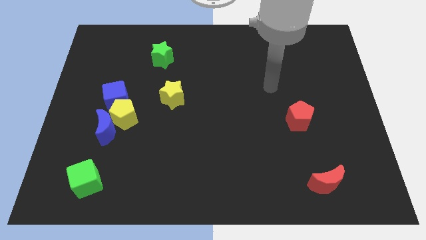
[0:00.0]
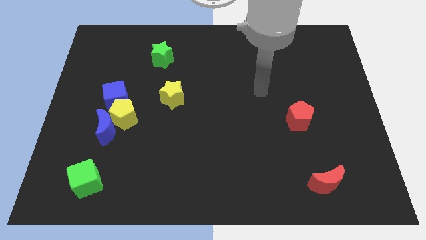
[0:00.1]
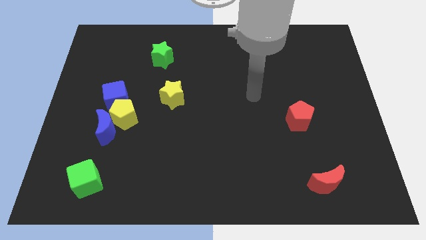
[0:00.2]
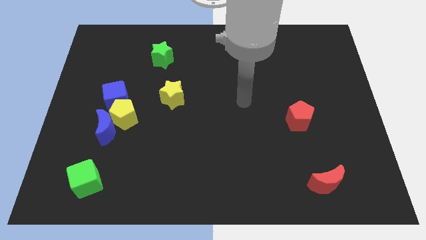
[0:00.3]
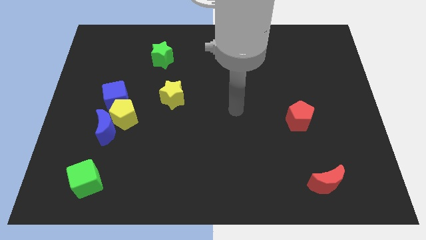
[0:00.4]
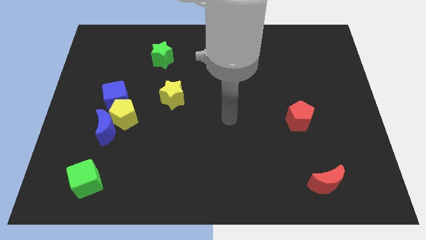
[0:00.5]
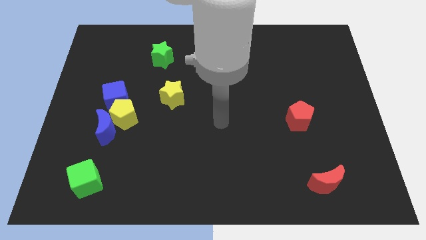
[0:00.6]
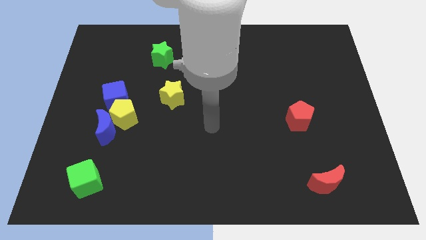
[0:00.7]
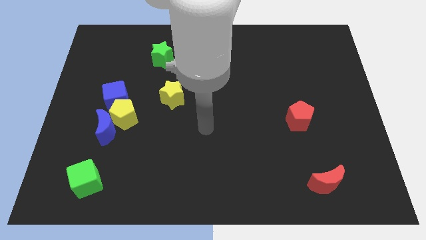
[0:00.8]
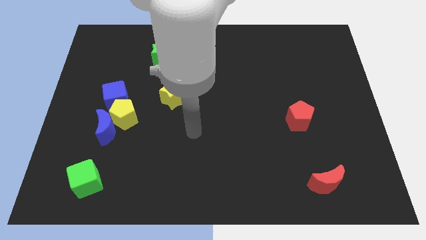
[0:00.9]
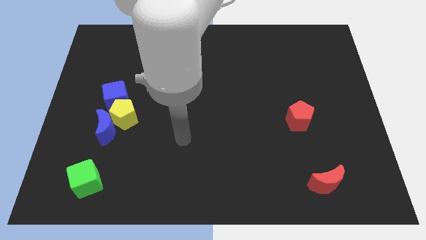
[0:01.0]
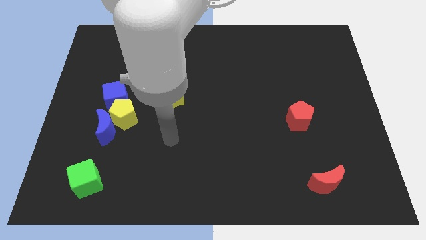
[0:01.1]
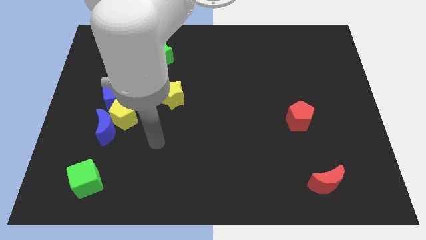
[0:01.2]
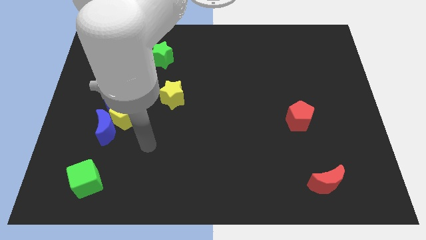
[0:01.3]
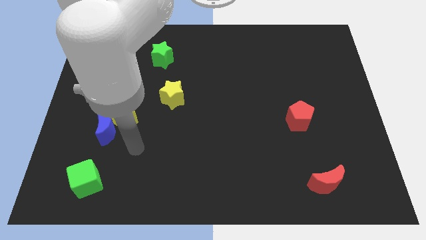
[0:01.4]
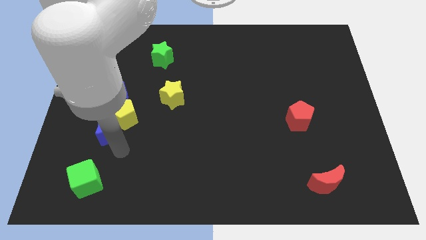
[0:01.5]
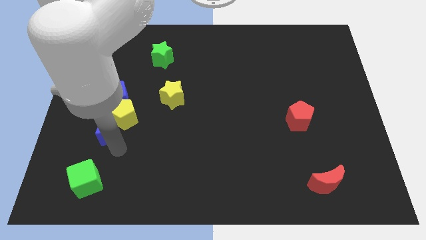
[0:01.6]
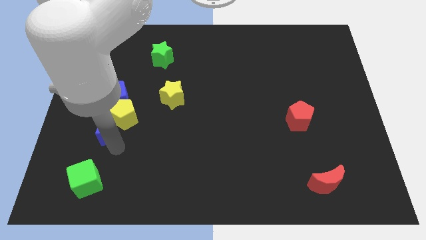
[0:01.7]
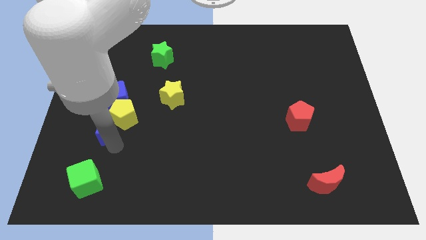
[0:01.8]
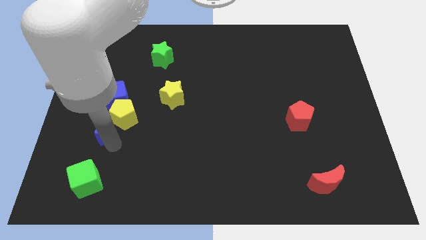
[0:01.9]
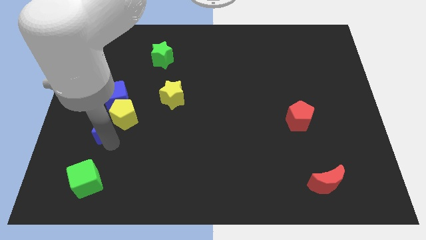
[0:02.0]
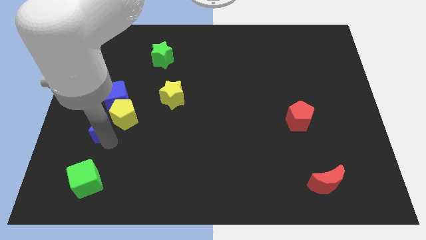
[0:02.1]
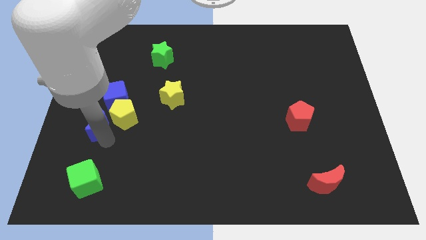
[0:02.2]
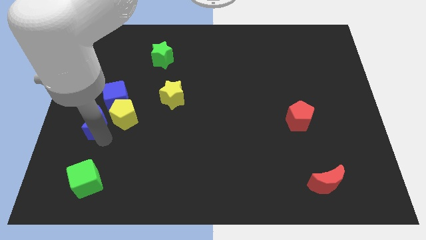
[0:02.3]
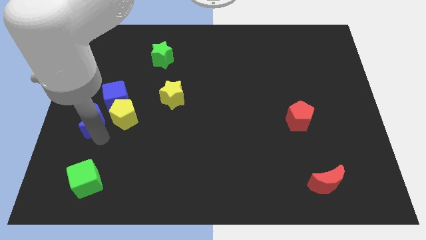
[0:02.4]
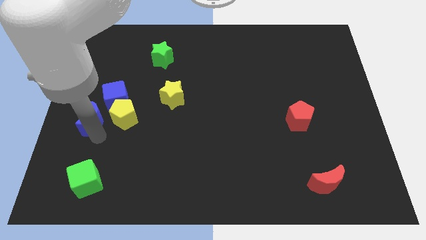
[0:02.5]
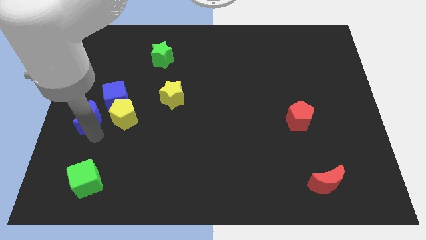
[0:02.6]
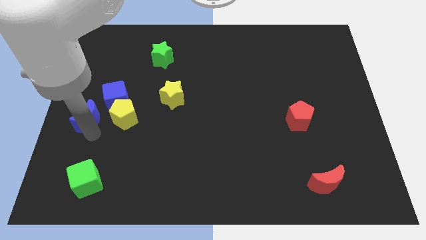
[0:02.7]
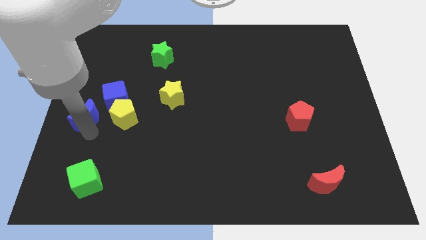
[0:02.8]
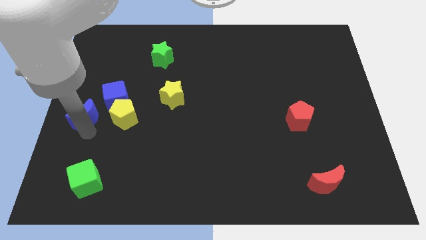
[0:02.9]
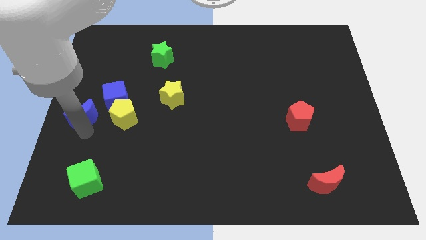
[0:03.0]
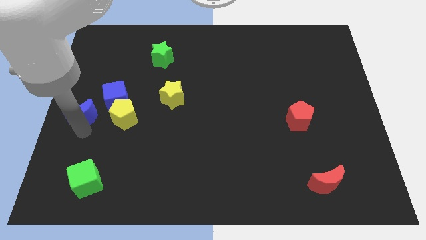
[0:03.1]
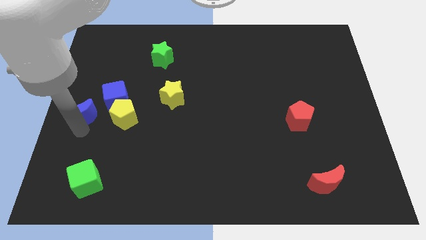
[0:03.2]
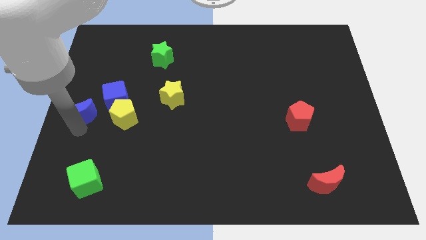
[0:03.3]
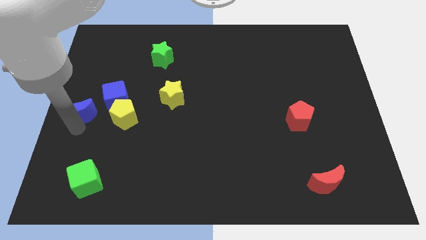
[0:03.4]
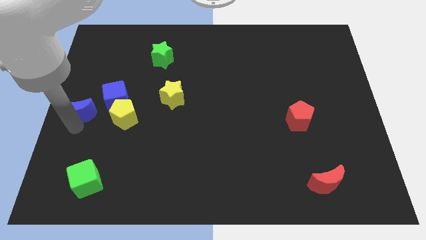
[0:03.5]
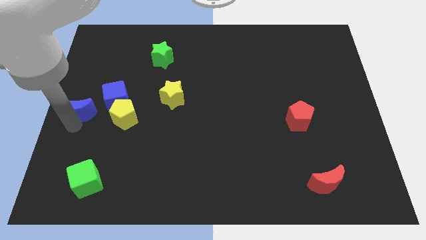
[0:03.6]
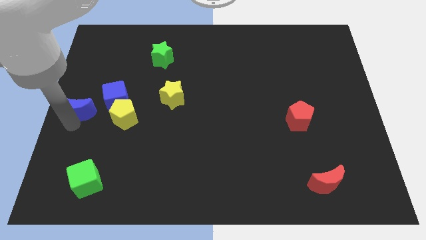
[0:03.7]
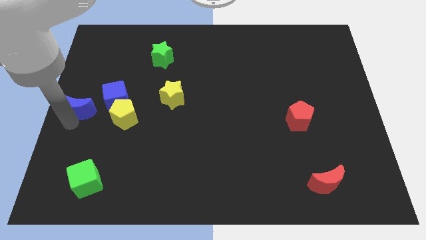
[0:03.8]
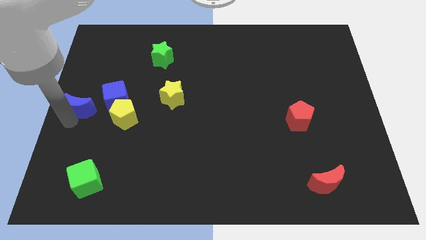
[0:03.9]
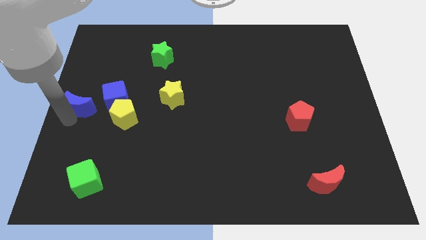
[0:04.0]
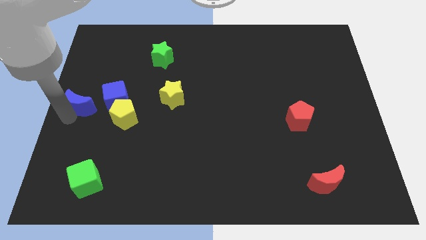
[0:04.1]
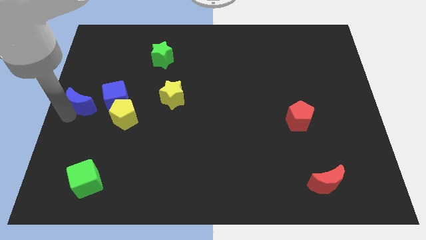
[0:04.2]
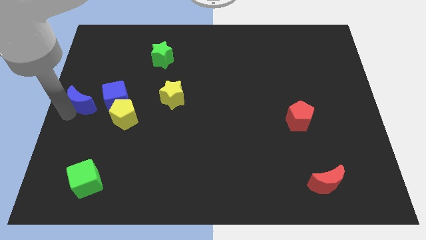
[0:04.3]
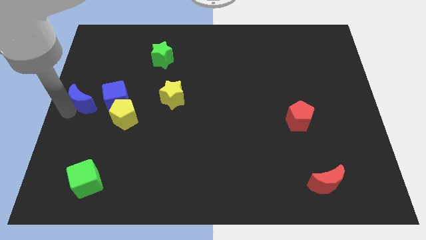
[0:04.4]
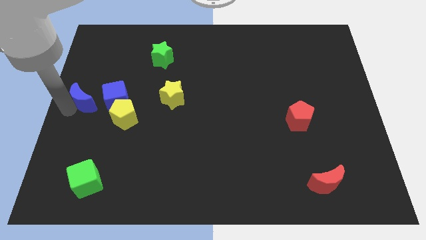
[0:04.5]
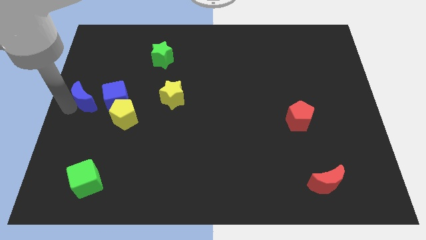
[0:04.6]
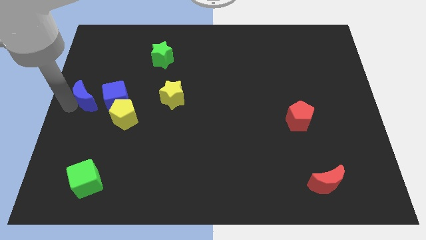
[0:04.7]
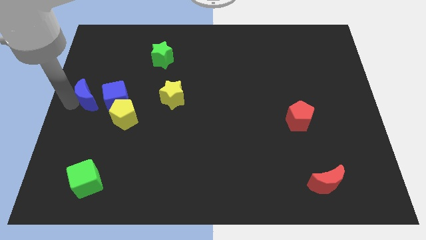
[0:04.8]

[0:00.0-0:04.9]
slightly move the blue moon upwards

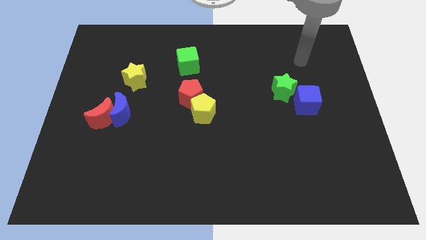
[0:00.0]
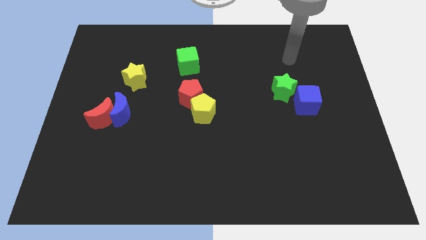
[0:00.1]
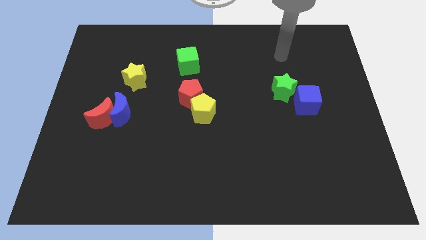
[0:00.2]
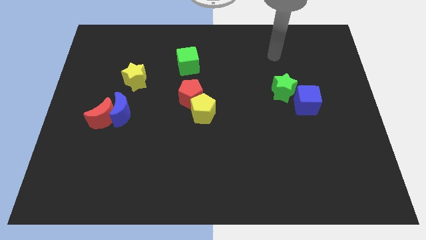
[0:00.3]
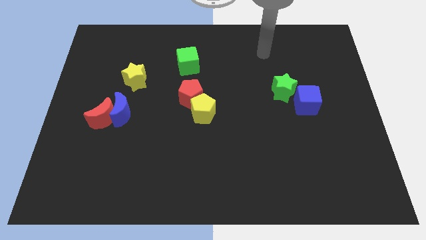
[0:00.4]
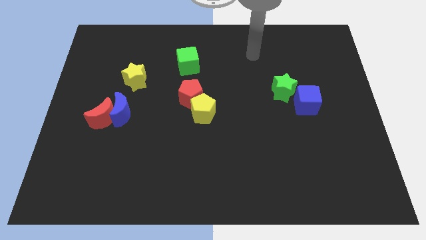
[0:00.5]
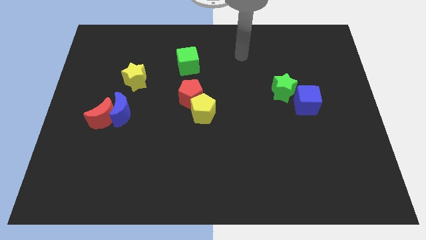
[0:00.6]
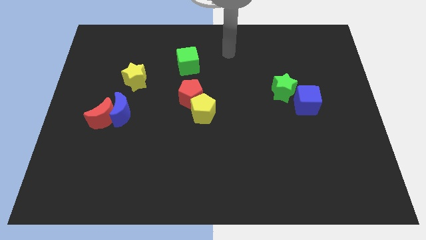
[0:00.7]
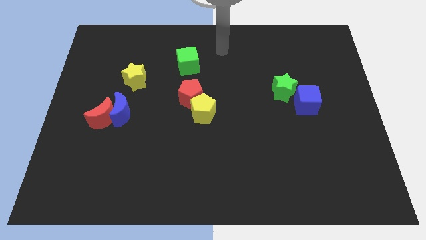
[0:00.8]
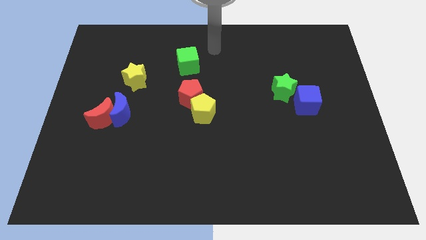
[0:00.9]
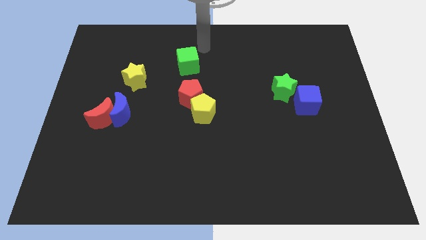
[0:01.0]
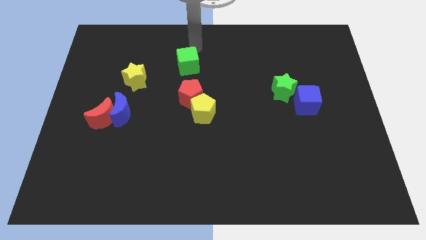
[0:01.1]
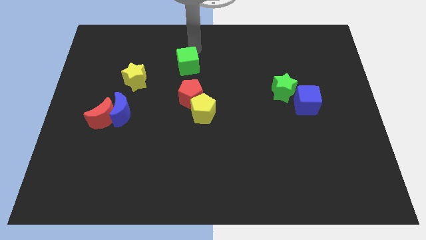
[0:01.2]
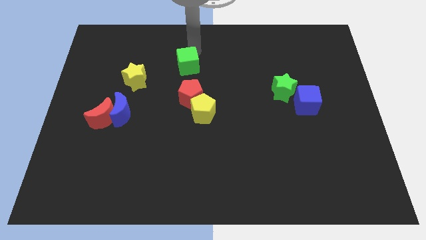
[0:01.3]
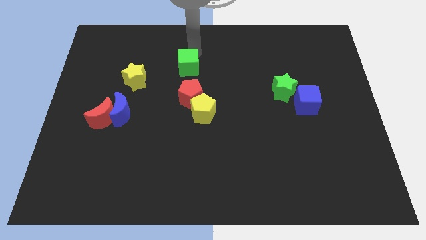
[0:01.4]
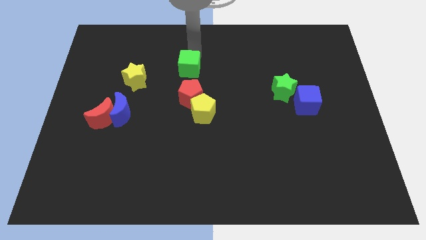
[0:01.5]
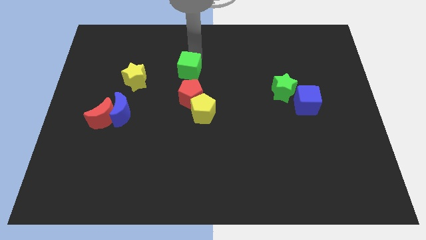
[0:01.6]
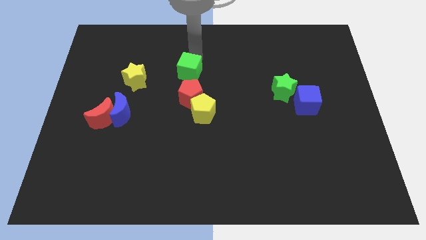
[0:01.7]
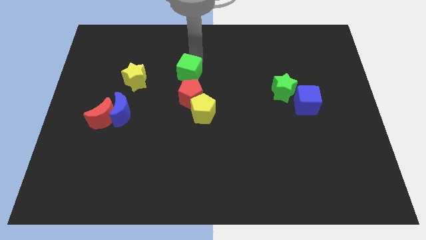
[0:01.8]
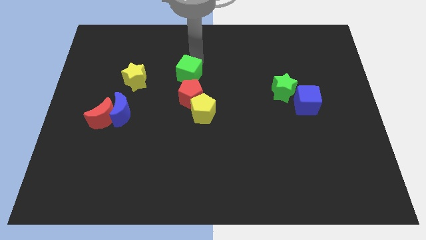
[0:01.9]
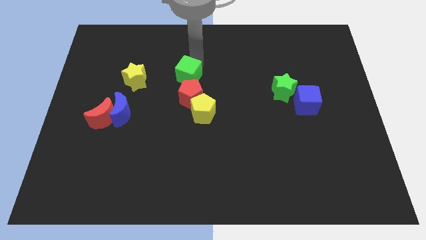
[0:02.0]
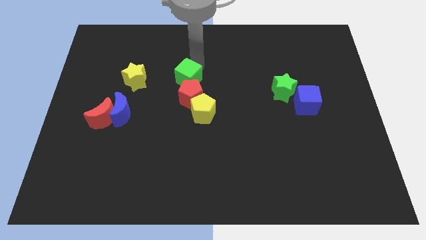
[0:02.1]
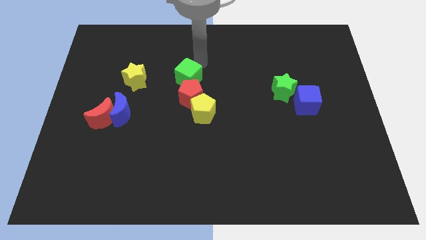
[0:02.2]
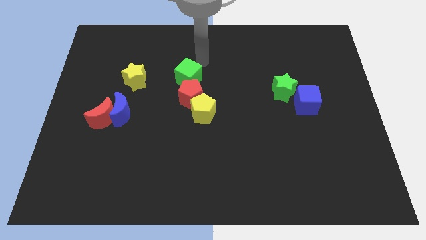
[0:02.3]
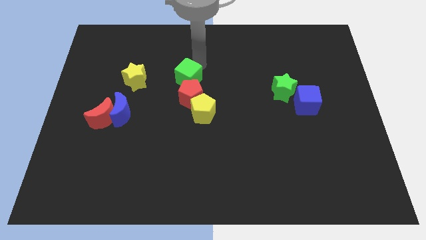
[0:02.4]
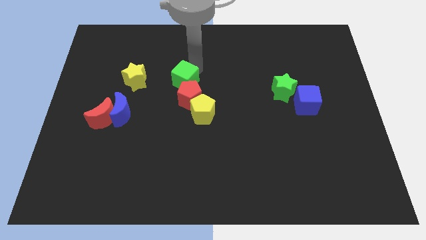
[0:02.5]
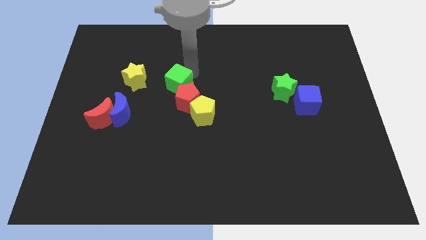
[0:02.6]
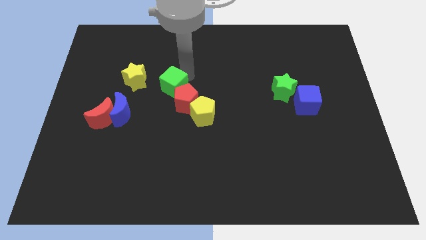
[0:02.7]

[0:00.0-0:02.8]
move the green cube a bit downwards

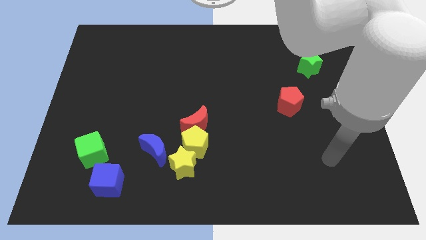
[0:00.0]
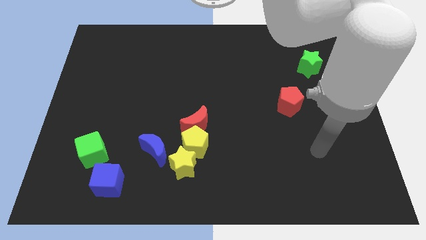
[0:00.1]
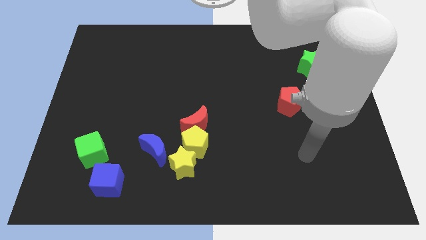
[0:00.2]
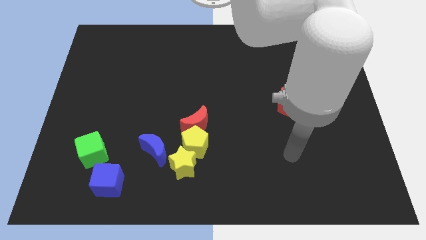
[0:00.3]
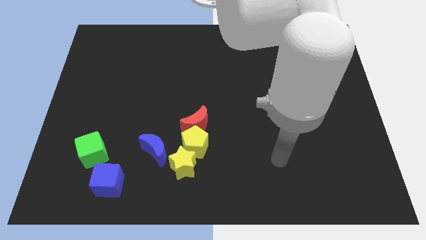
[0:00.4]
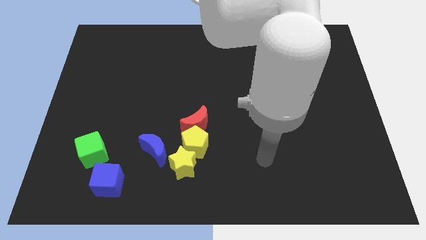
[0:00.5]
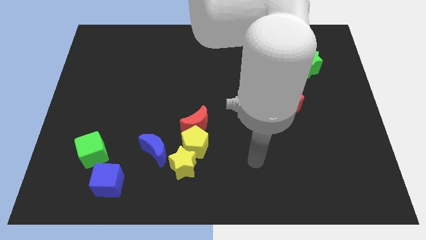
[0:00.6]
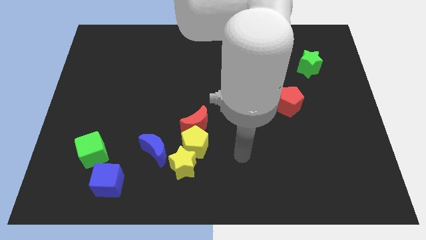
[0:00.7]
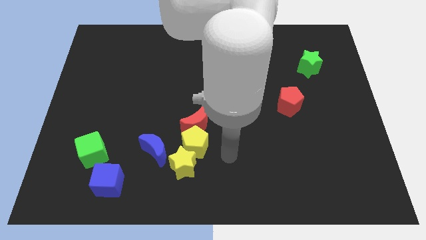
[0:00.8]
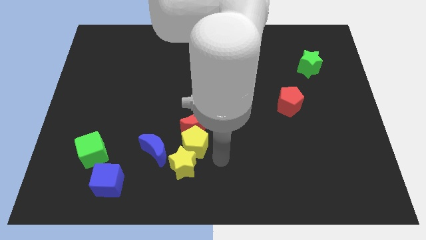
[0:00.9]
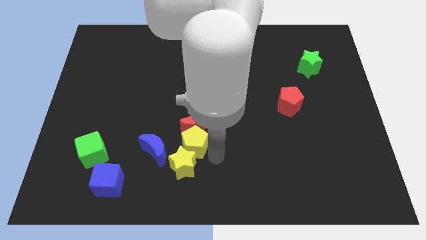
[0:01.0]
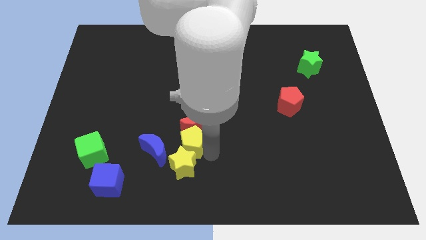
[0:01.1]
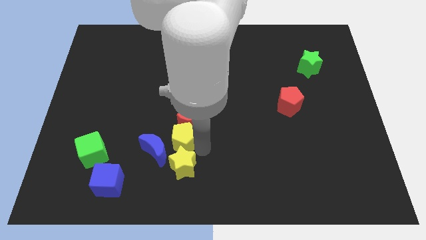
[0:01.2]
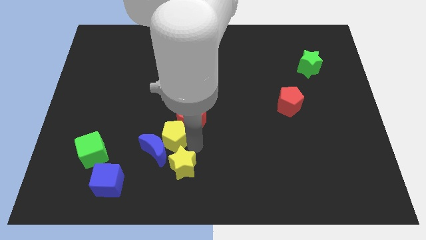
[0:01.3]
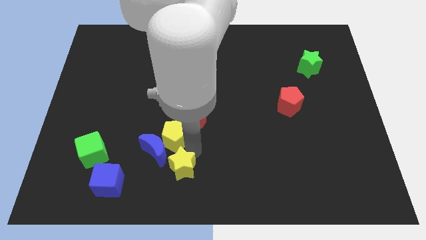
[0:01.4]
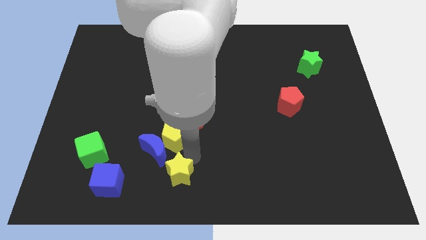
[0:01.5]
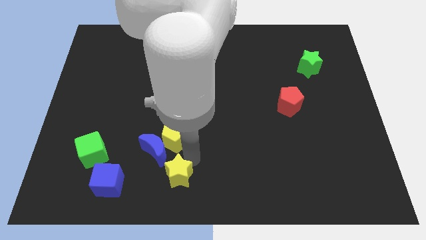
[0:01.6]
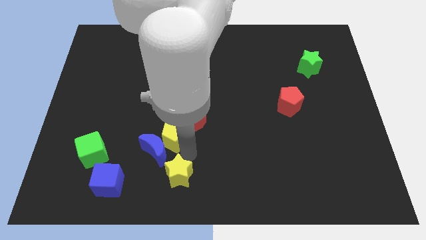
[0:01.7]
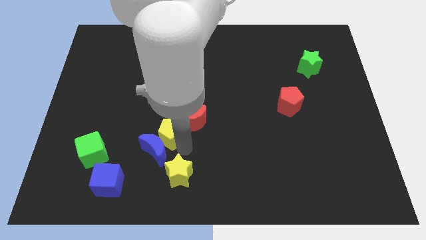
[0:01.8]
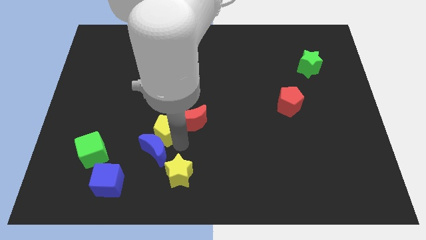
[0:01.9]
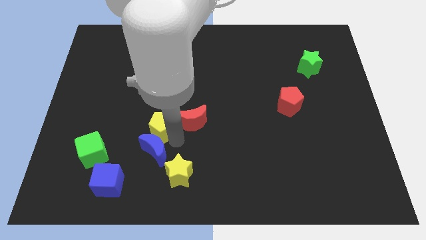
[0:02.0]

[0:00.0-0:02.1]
push the yellow pentagon diagonally upwards and to the left slightly
